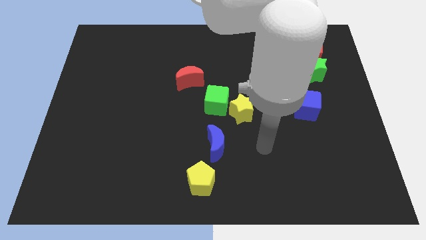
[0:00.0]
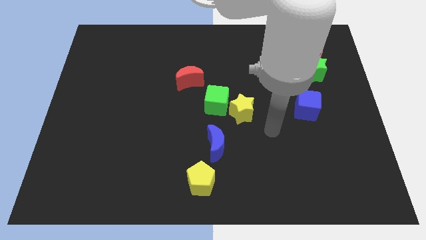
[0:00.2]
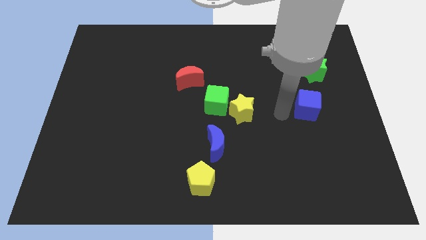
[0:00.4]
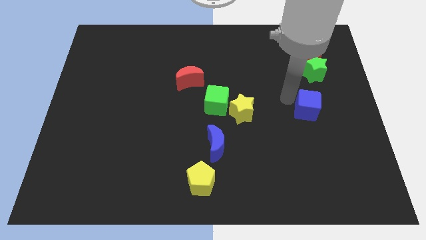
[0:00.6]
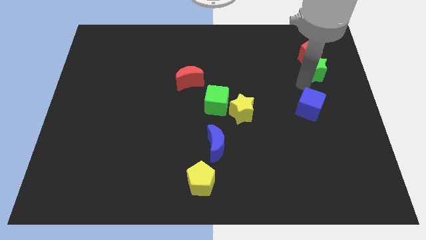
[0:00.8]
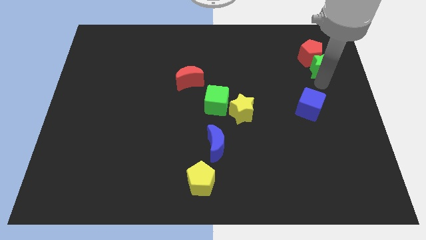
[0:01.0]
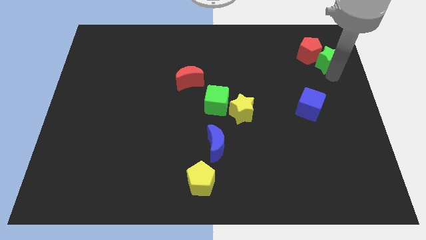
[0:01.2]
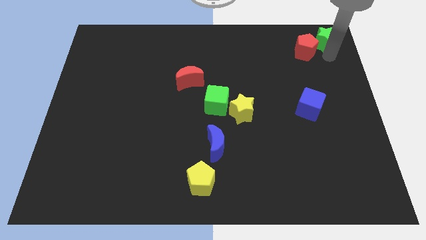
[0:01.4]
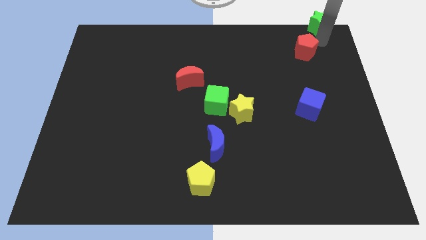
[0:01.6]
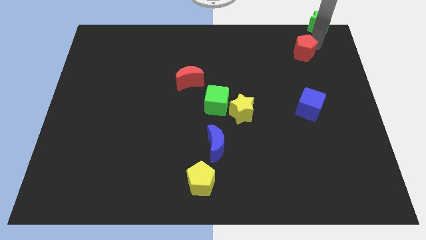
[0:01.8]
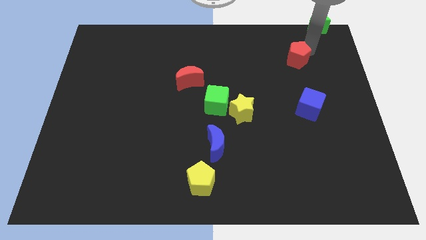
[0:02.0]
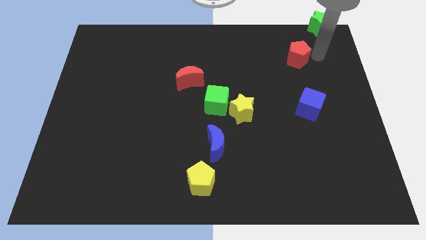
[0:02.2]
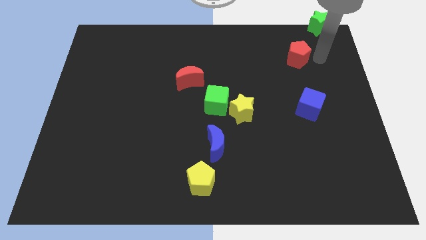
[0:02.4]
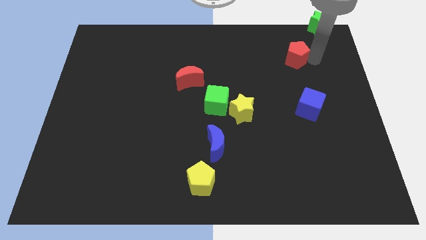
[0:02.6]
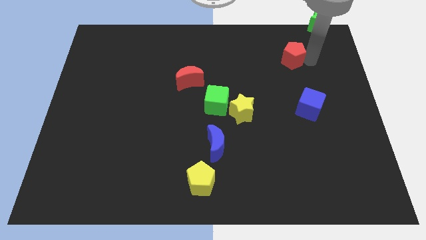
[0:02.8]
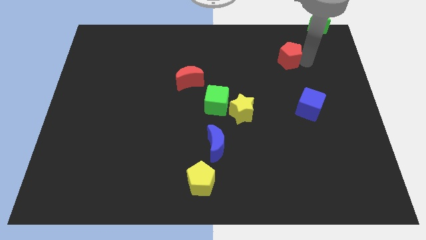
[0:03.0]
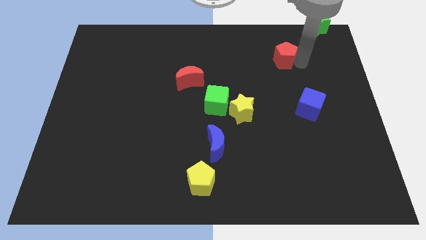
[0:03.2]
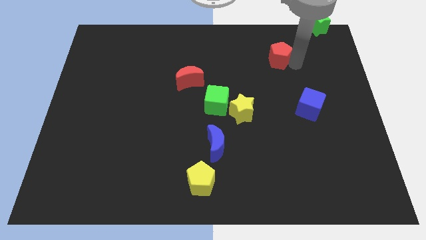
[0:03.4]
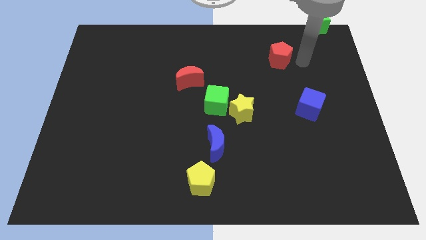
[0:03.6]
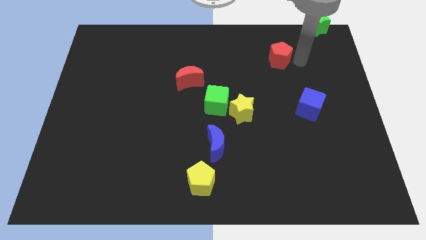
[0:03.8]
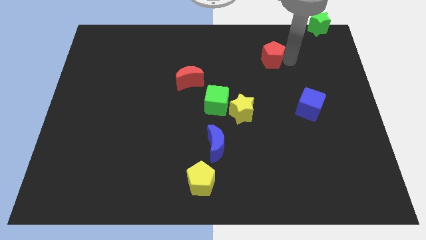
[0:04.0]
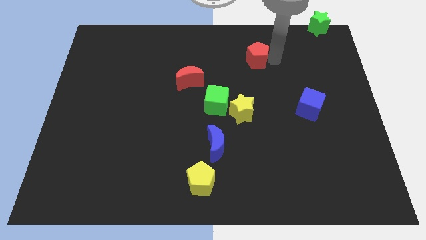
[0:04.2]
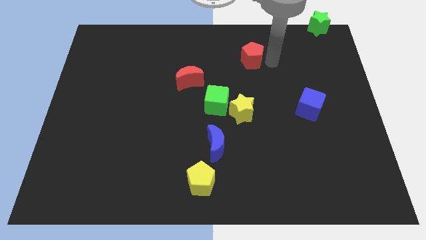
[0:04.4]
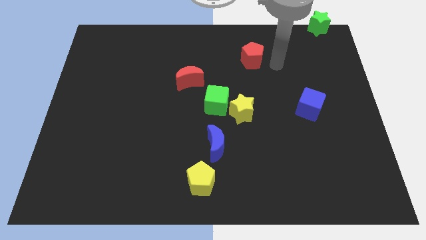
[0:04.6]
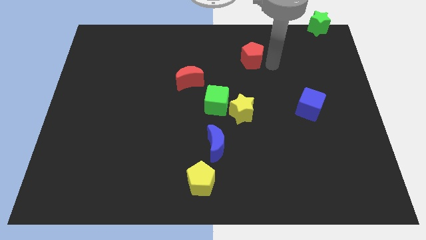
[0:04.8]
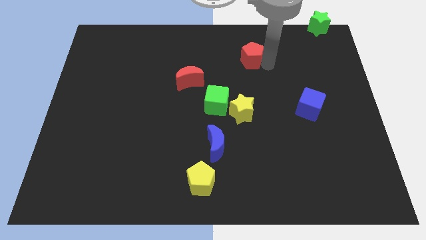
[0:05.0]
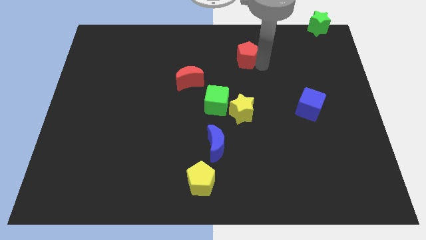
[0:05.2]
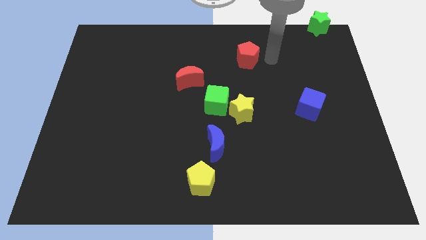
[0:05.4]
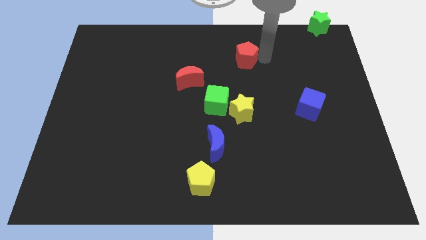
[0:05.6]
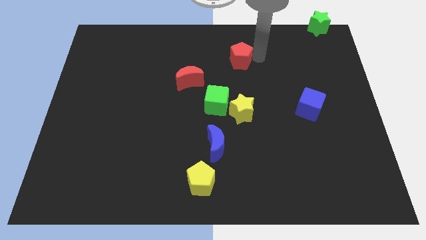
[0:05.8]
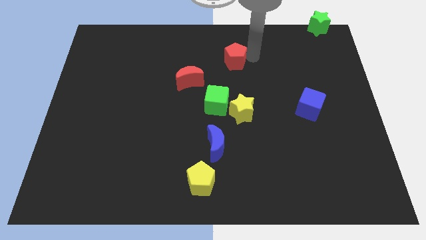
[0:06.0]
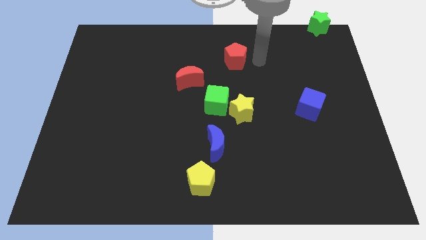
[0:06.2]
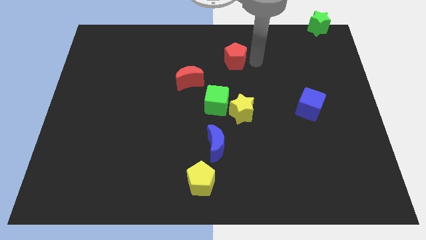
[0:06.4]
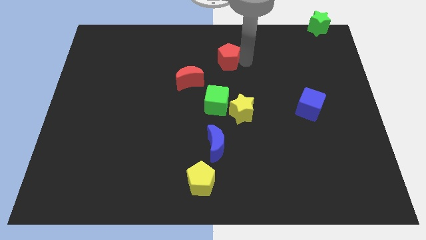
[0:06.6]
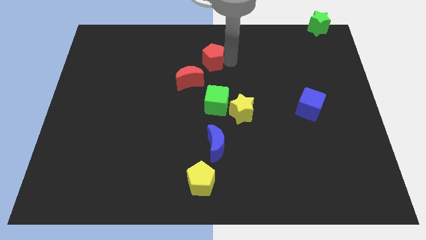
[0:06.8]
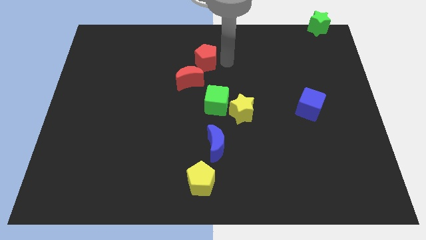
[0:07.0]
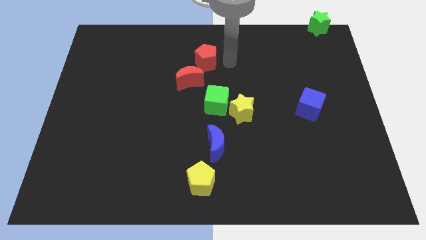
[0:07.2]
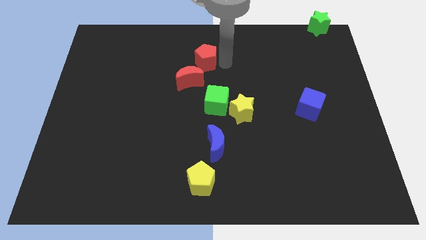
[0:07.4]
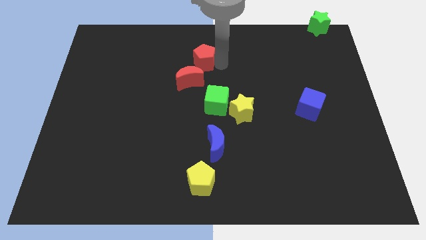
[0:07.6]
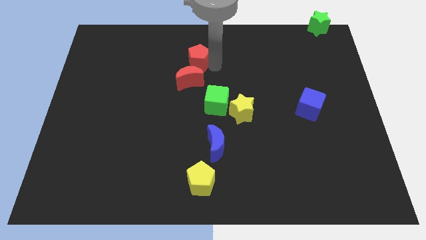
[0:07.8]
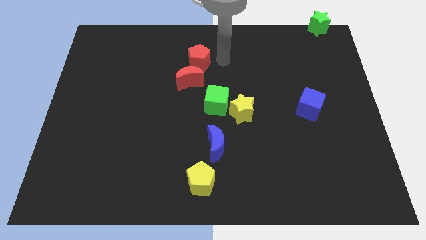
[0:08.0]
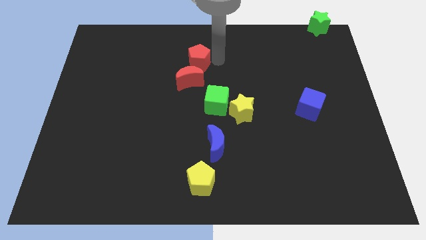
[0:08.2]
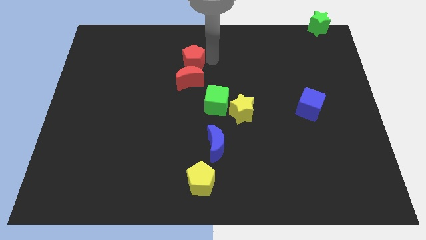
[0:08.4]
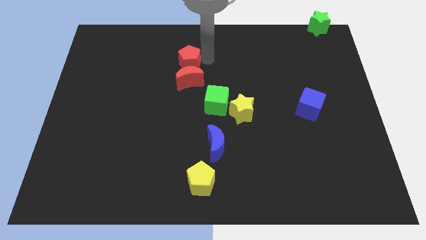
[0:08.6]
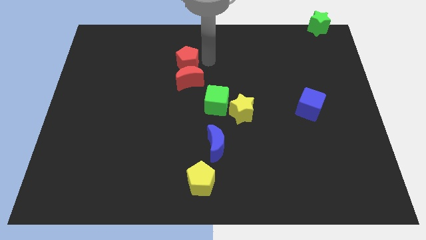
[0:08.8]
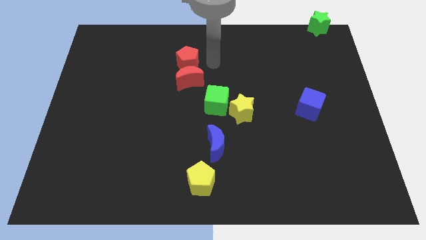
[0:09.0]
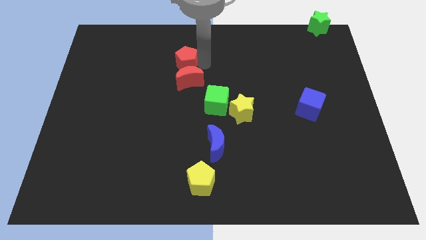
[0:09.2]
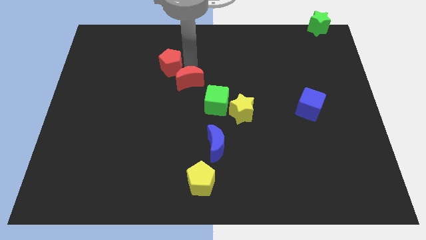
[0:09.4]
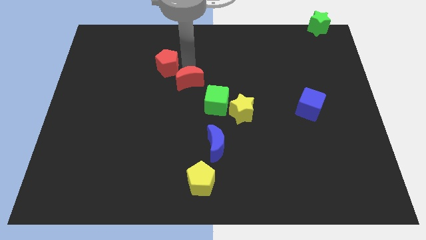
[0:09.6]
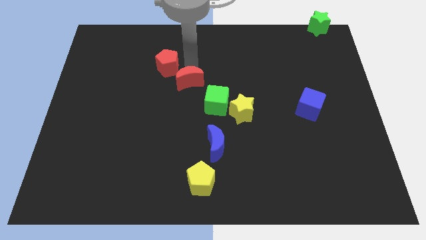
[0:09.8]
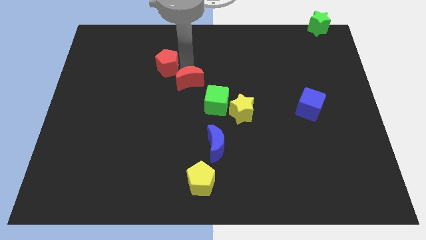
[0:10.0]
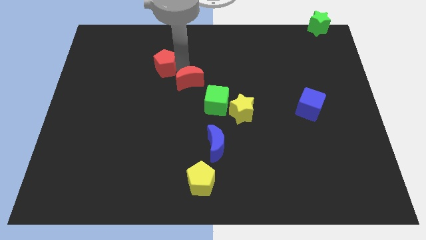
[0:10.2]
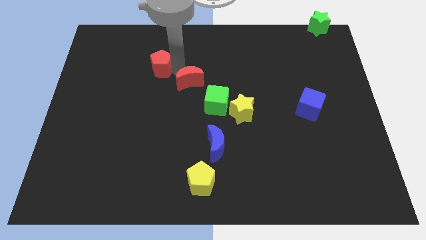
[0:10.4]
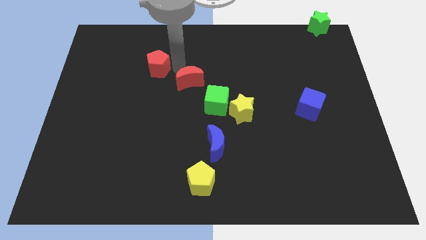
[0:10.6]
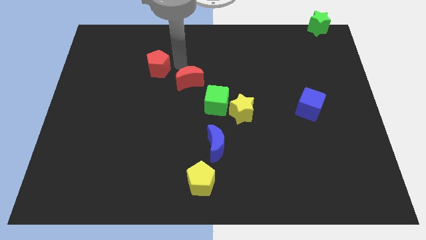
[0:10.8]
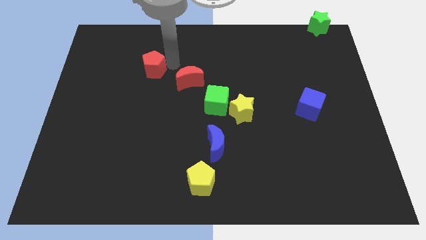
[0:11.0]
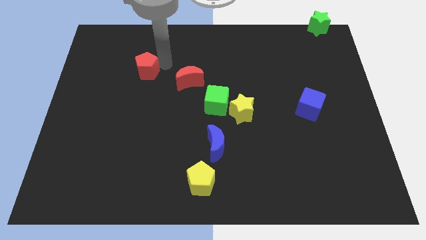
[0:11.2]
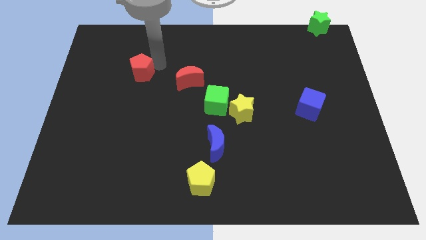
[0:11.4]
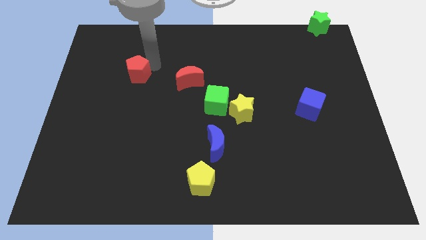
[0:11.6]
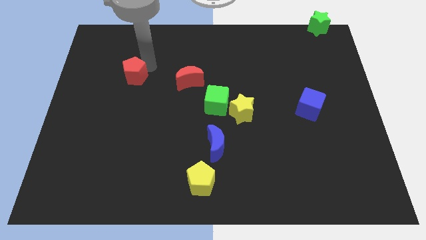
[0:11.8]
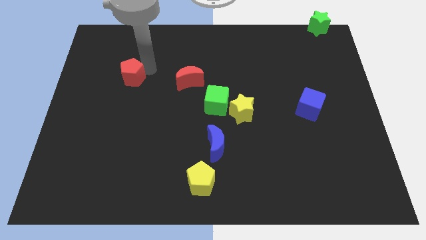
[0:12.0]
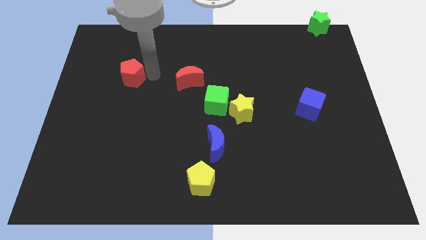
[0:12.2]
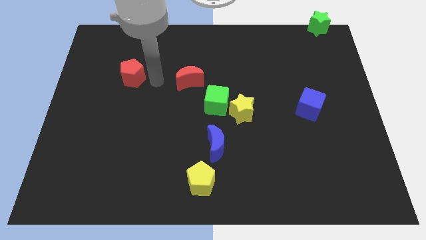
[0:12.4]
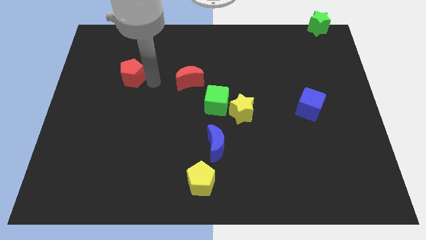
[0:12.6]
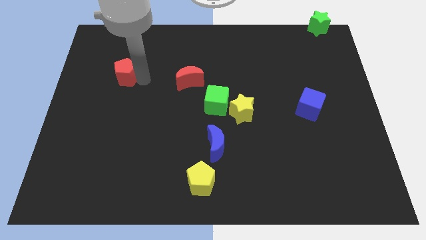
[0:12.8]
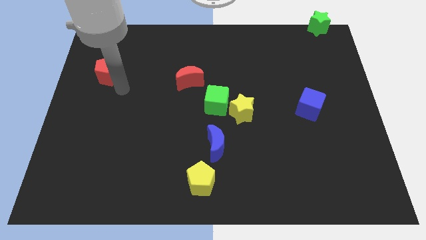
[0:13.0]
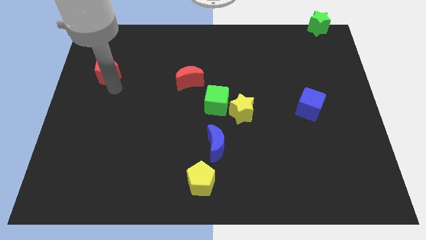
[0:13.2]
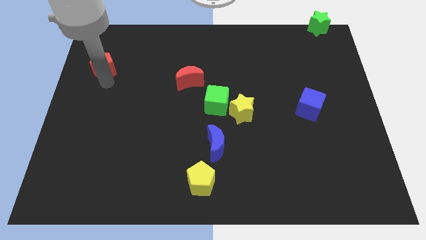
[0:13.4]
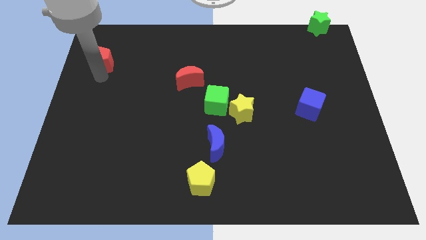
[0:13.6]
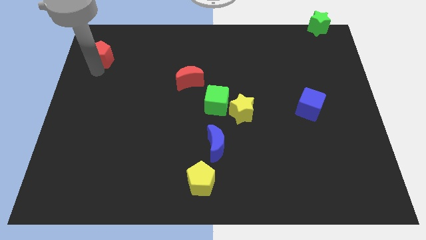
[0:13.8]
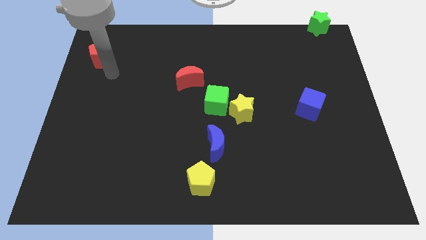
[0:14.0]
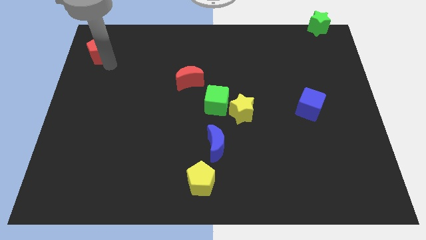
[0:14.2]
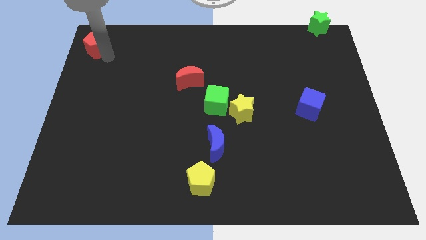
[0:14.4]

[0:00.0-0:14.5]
slide the red pentagon to the upper left corner

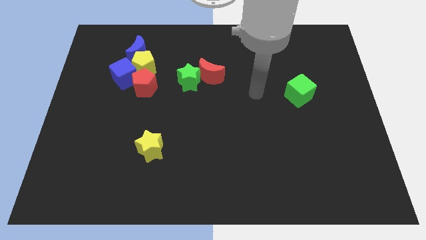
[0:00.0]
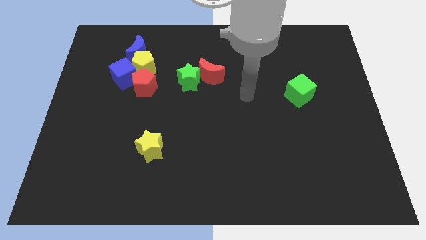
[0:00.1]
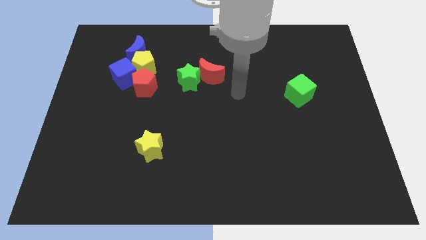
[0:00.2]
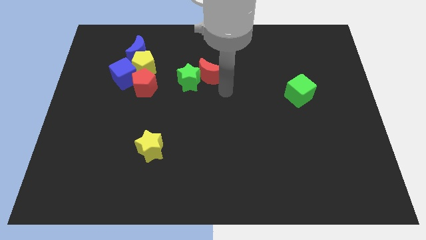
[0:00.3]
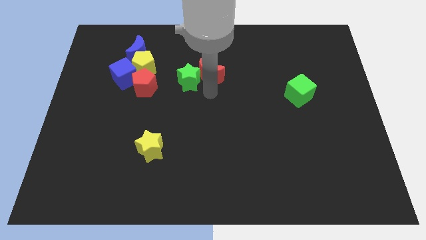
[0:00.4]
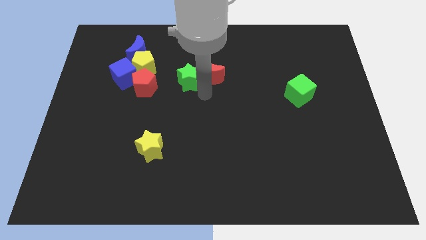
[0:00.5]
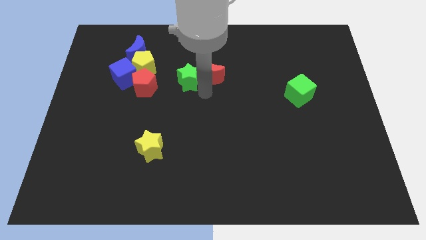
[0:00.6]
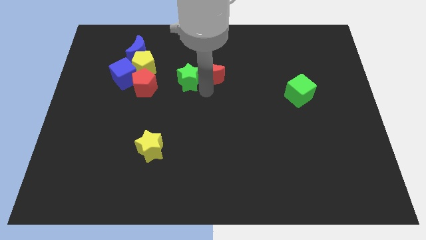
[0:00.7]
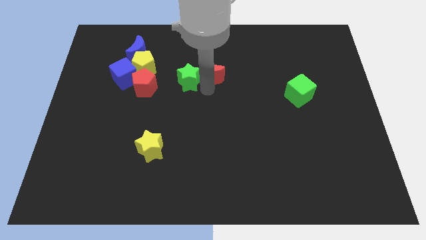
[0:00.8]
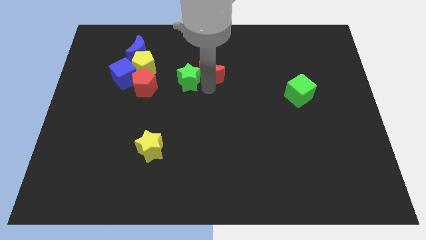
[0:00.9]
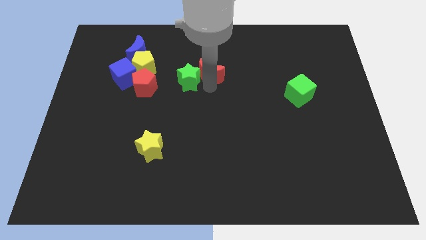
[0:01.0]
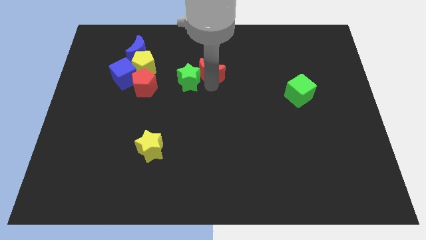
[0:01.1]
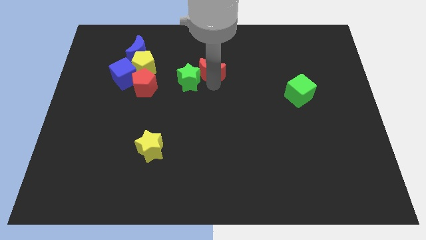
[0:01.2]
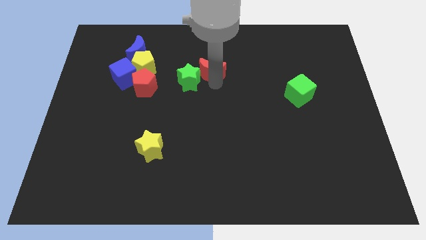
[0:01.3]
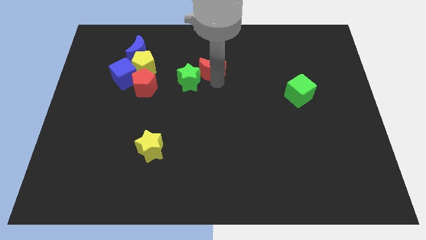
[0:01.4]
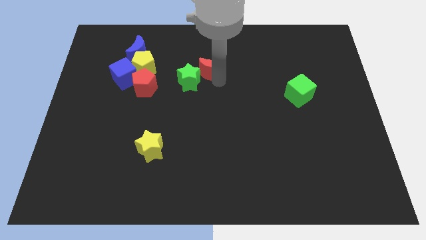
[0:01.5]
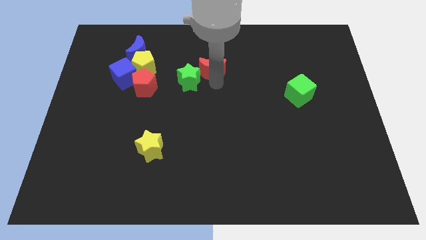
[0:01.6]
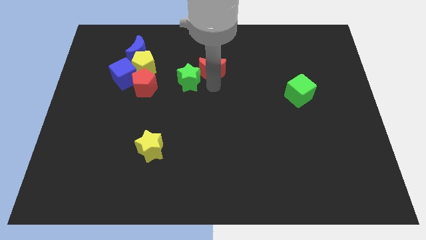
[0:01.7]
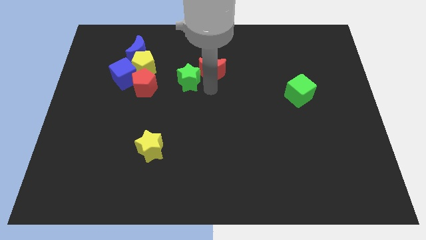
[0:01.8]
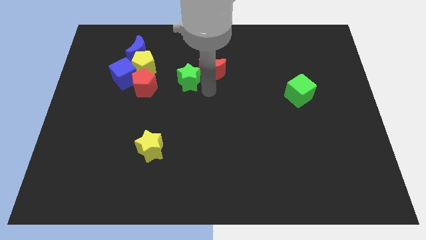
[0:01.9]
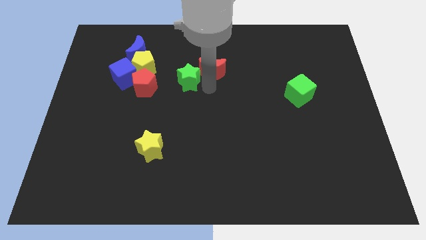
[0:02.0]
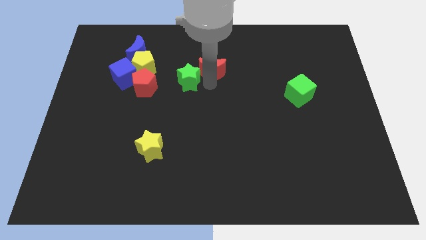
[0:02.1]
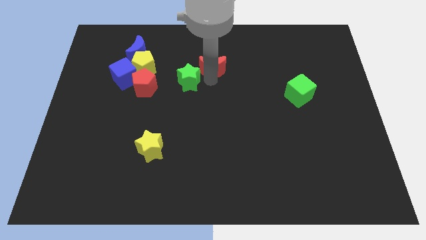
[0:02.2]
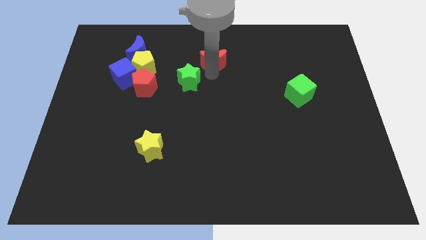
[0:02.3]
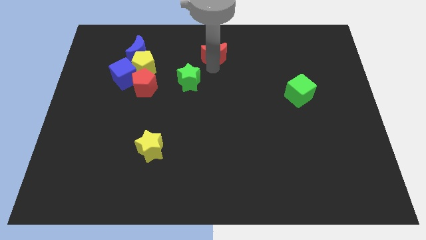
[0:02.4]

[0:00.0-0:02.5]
push the red moon to the top
